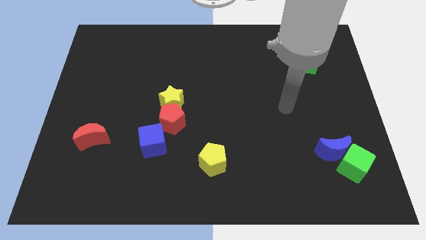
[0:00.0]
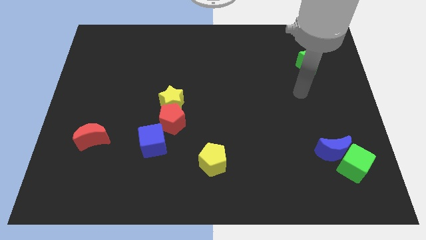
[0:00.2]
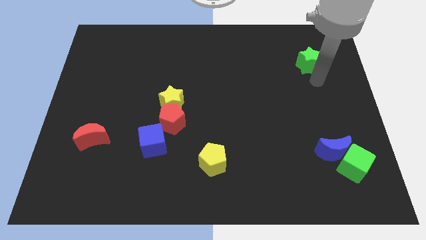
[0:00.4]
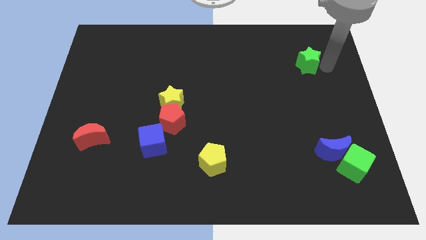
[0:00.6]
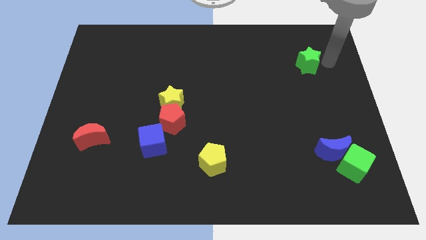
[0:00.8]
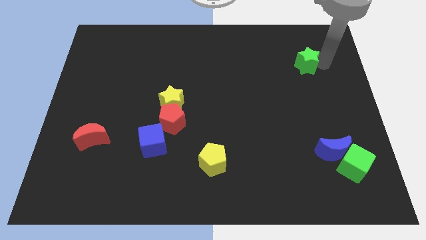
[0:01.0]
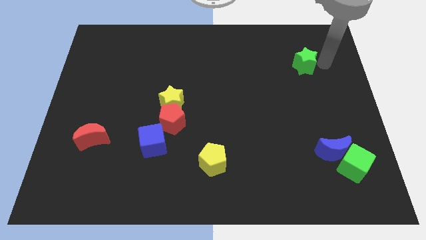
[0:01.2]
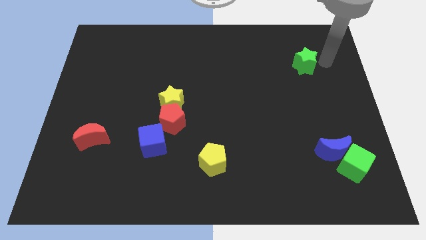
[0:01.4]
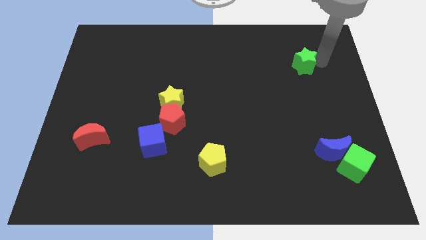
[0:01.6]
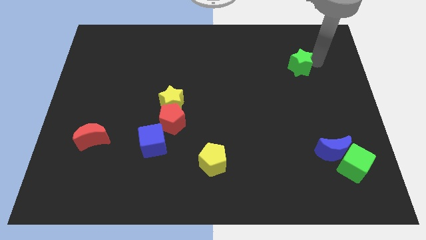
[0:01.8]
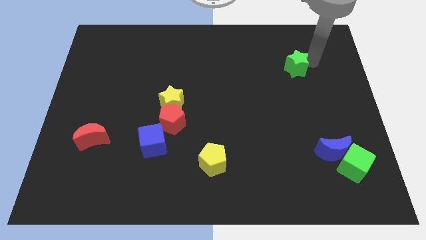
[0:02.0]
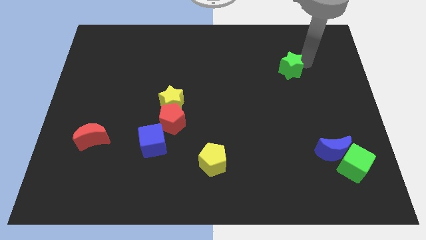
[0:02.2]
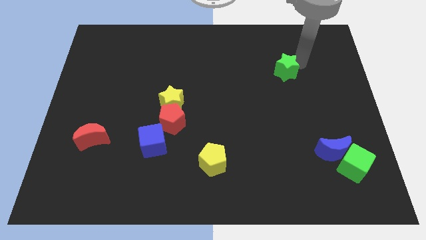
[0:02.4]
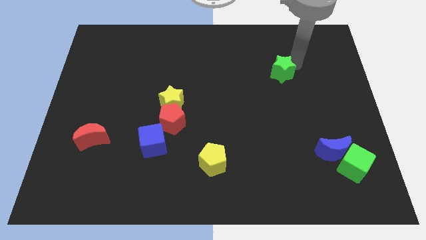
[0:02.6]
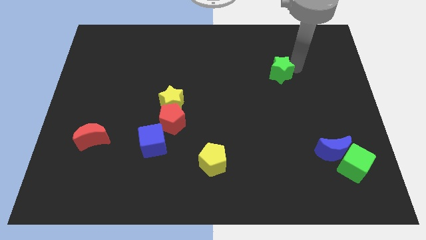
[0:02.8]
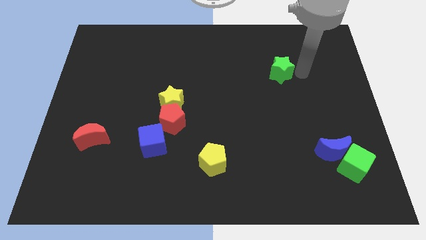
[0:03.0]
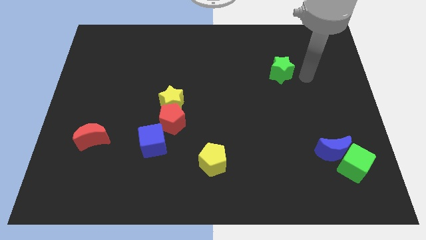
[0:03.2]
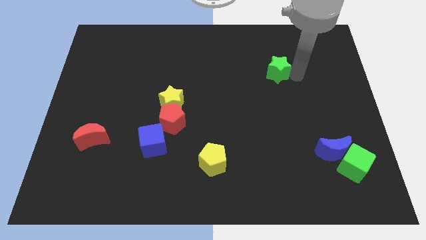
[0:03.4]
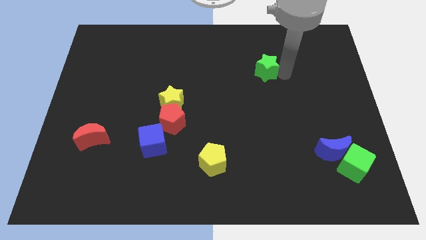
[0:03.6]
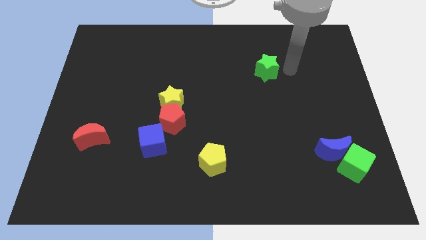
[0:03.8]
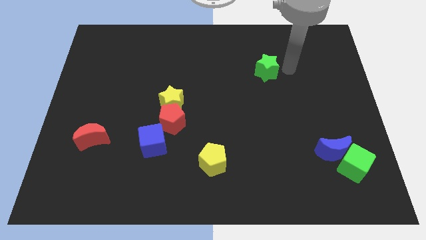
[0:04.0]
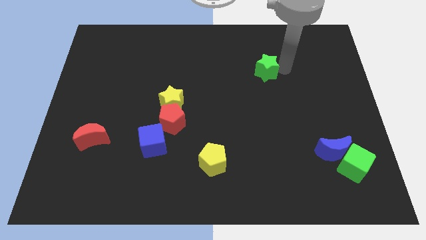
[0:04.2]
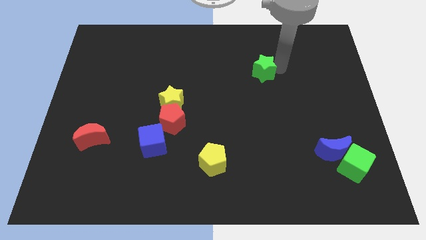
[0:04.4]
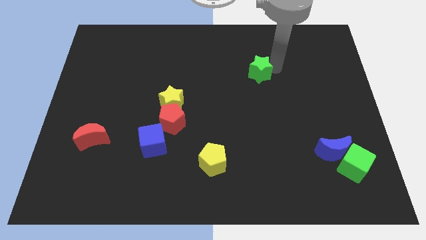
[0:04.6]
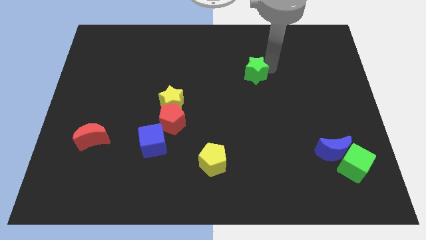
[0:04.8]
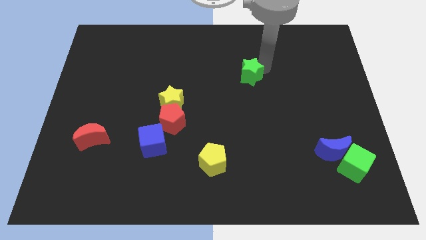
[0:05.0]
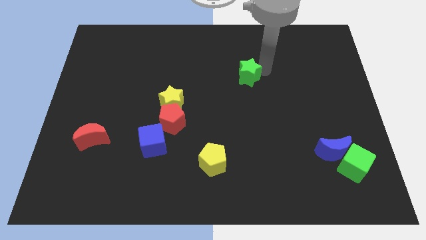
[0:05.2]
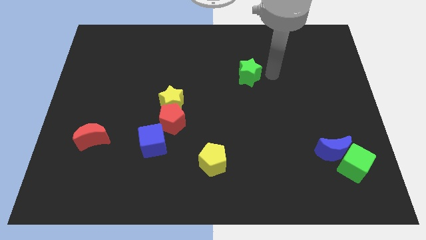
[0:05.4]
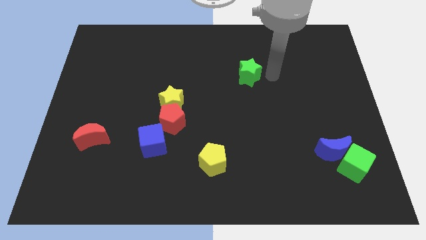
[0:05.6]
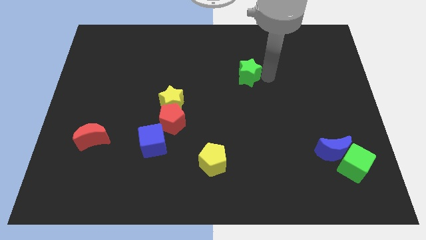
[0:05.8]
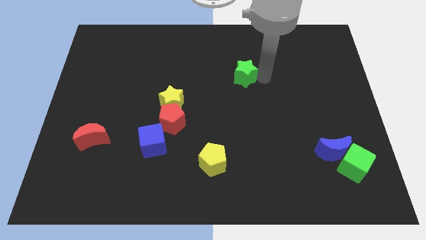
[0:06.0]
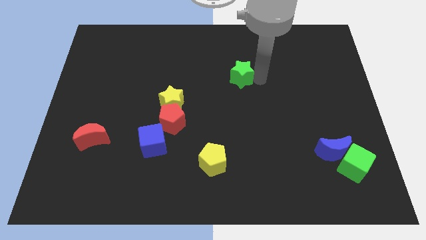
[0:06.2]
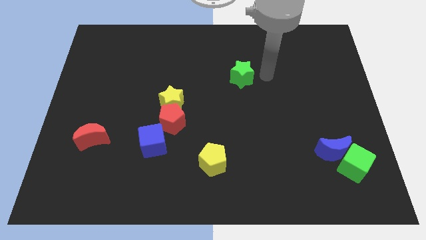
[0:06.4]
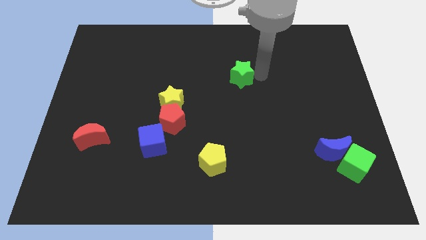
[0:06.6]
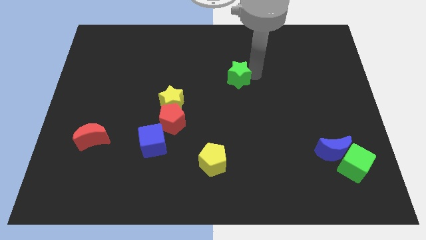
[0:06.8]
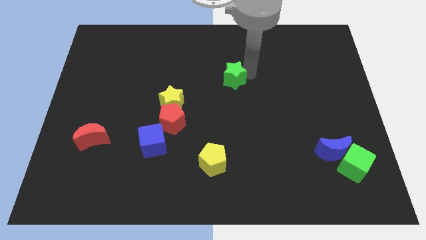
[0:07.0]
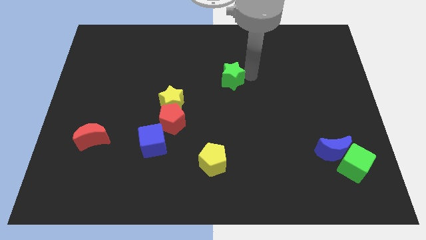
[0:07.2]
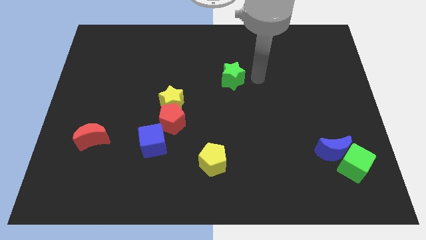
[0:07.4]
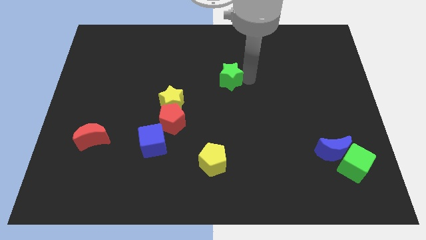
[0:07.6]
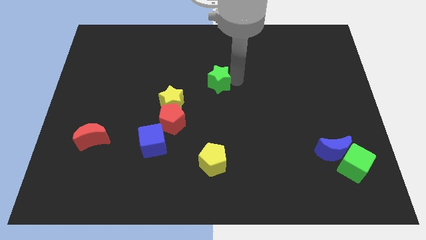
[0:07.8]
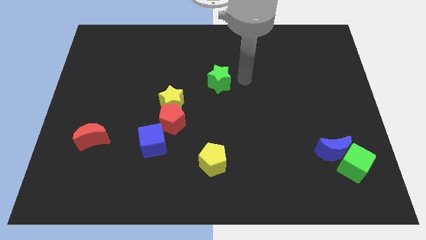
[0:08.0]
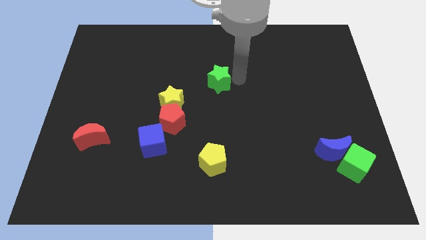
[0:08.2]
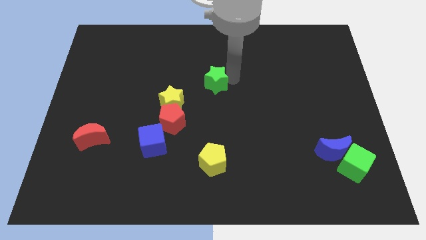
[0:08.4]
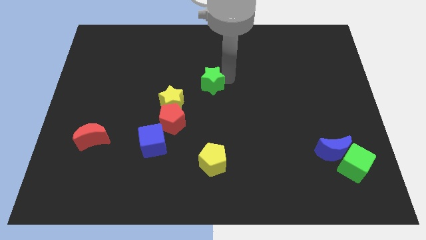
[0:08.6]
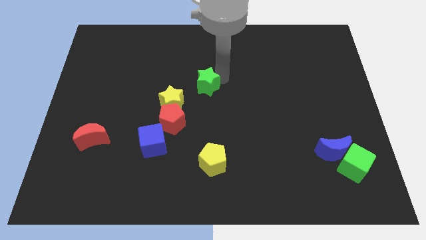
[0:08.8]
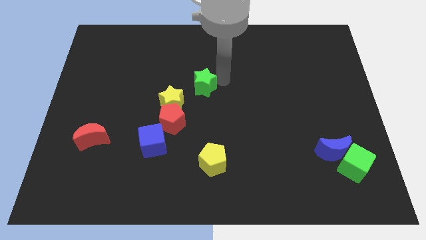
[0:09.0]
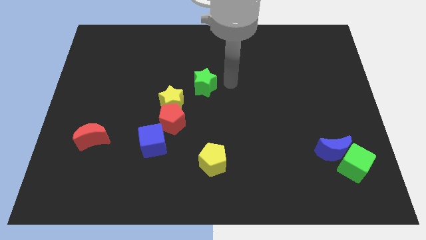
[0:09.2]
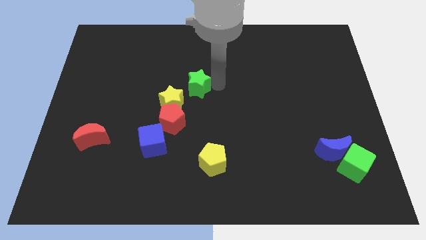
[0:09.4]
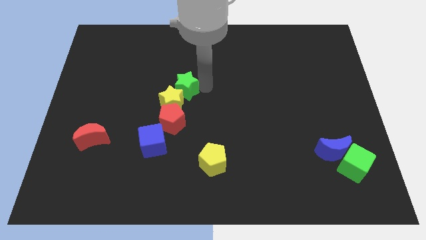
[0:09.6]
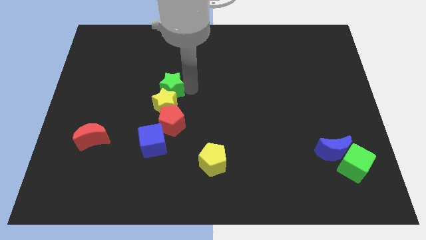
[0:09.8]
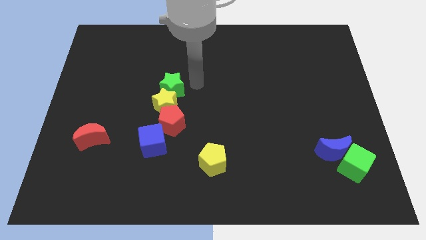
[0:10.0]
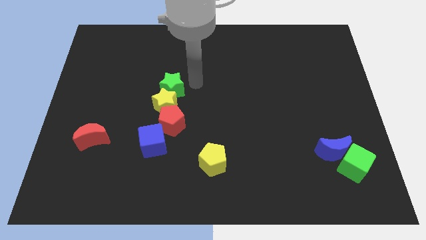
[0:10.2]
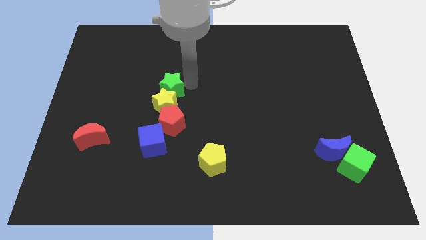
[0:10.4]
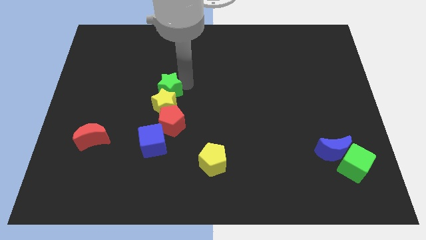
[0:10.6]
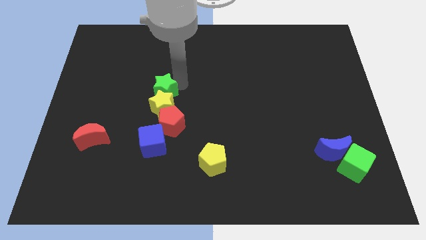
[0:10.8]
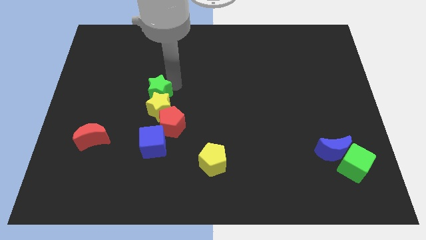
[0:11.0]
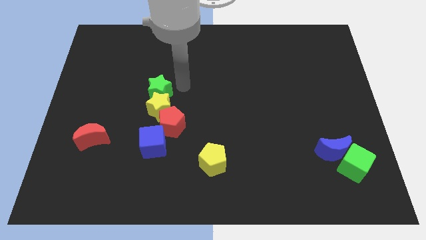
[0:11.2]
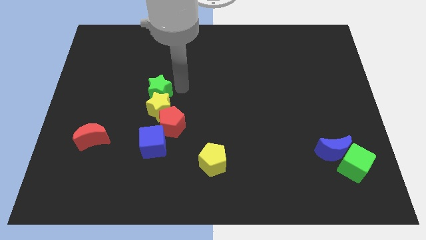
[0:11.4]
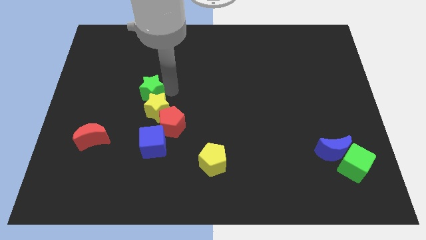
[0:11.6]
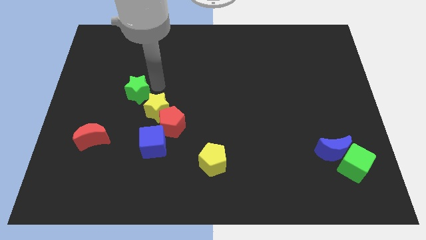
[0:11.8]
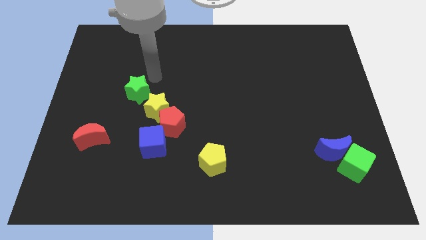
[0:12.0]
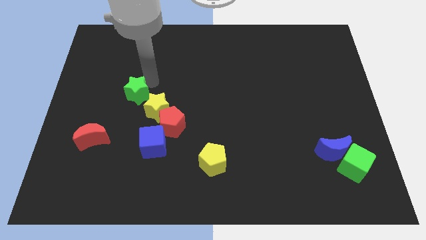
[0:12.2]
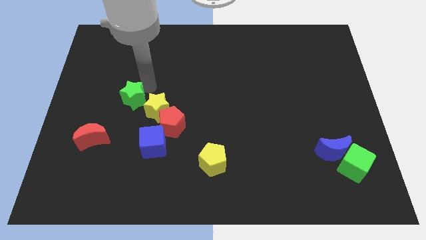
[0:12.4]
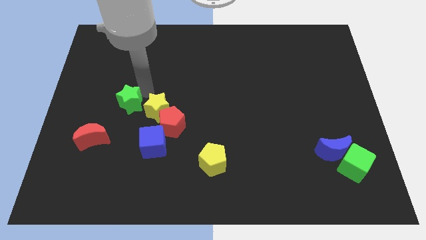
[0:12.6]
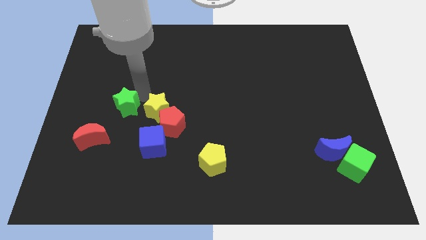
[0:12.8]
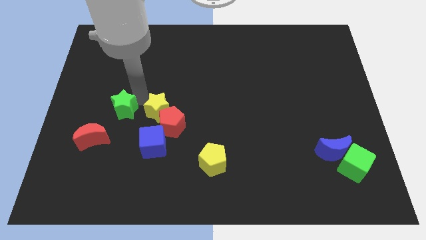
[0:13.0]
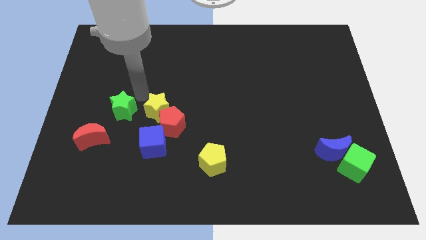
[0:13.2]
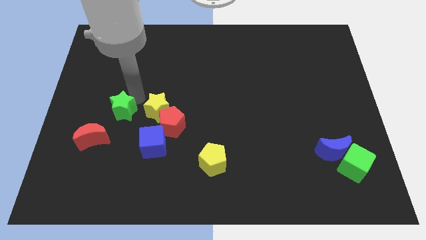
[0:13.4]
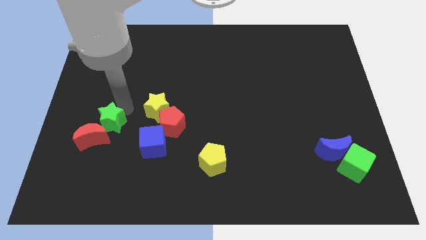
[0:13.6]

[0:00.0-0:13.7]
move the green star close to the red moon

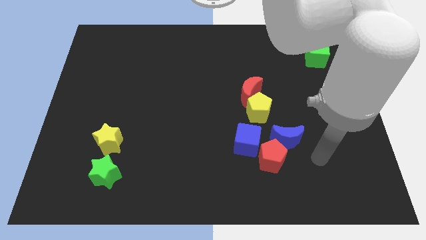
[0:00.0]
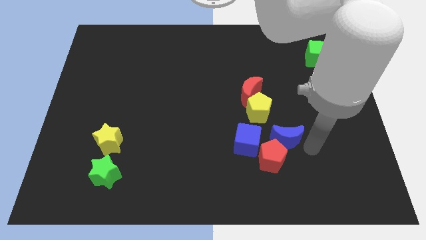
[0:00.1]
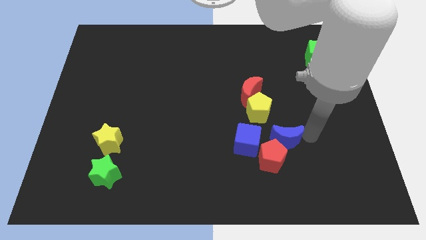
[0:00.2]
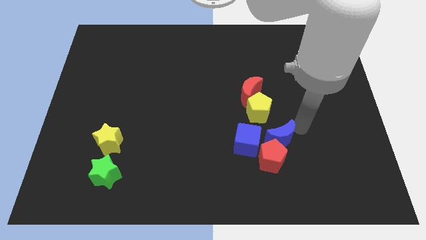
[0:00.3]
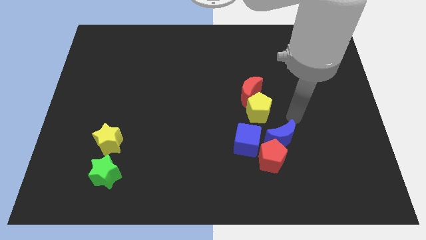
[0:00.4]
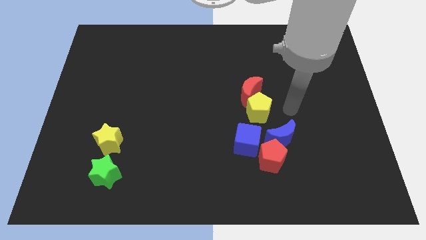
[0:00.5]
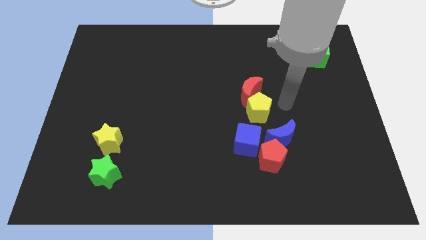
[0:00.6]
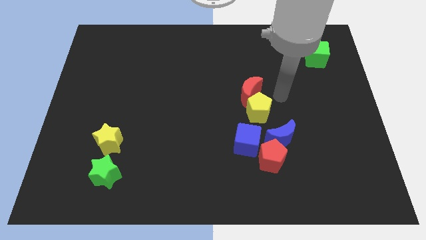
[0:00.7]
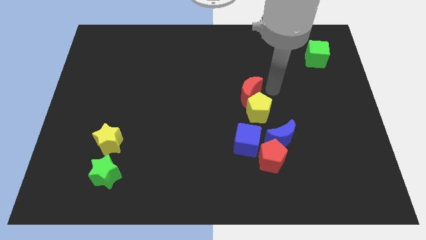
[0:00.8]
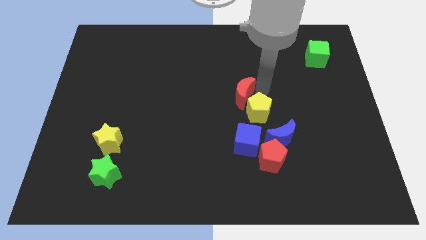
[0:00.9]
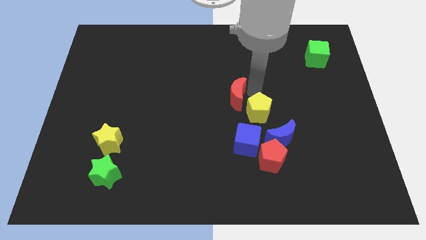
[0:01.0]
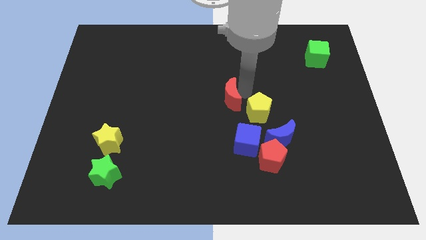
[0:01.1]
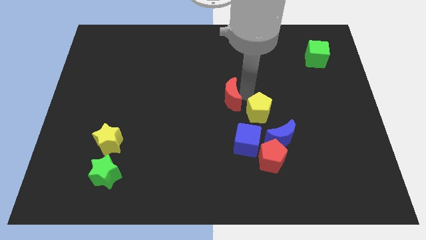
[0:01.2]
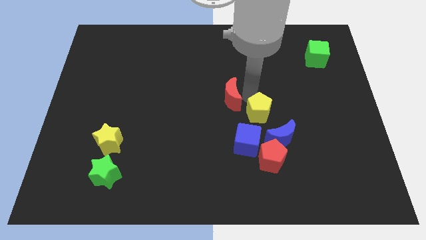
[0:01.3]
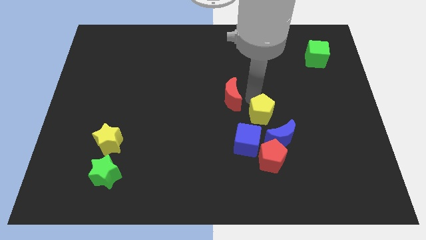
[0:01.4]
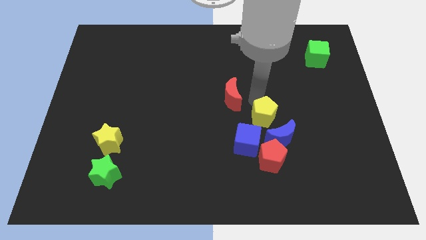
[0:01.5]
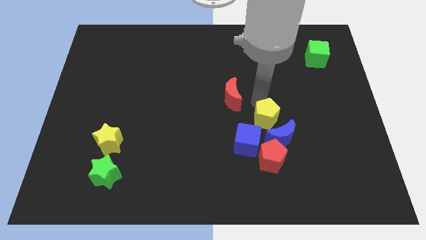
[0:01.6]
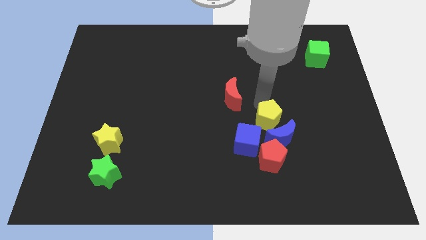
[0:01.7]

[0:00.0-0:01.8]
put the yellow pentagon close to the blue moon
